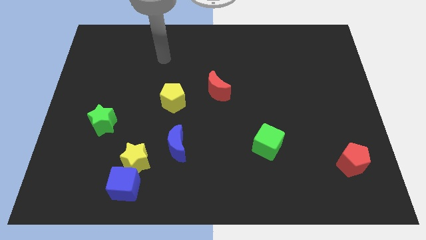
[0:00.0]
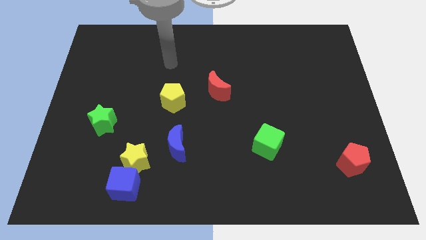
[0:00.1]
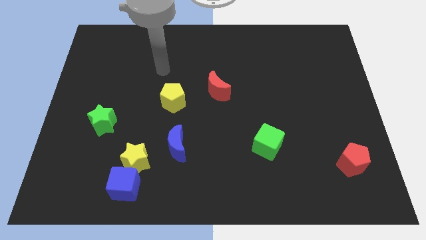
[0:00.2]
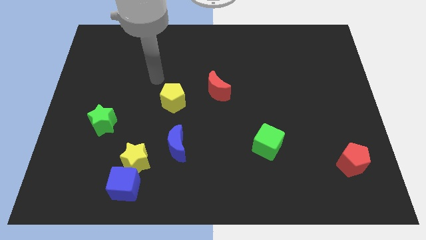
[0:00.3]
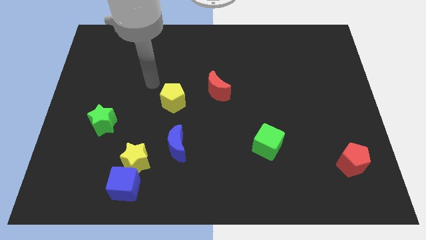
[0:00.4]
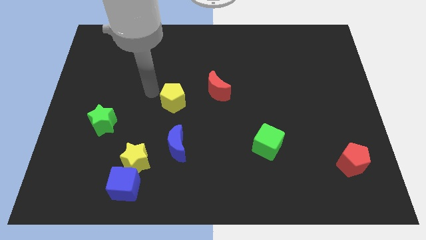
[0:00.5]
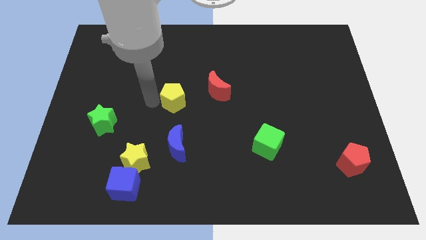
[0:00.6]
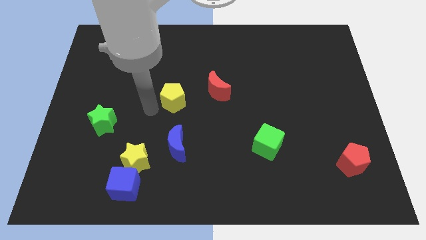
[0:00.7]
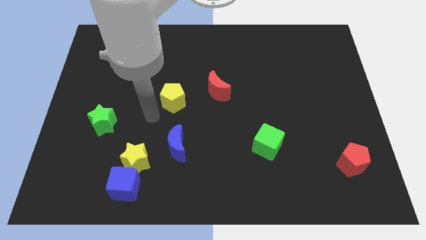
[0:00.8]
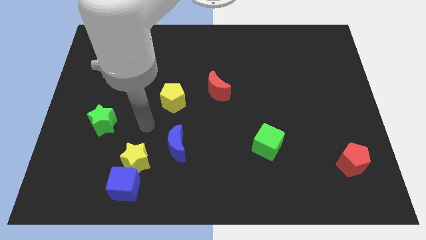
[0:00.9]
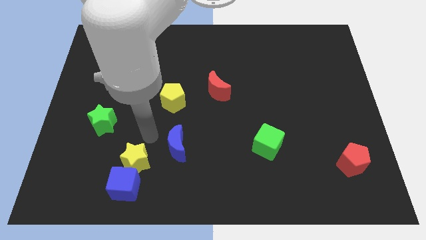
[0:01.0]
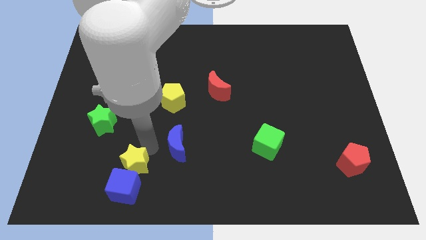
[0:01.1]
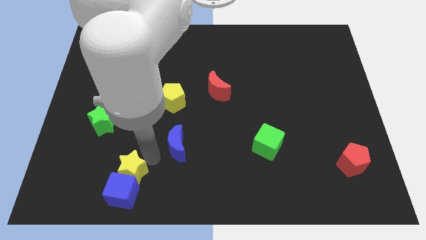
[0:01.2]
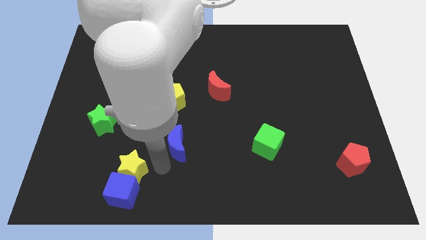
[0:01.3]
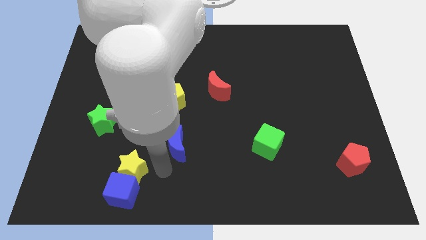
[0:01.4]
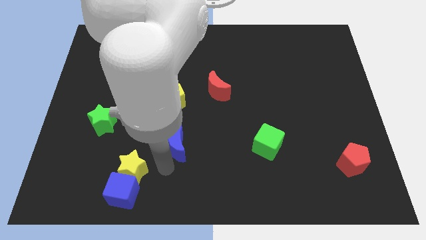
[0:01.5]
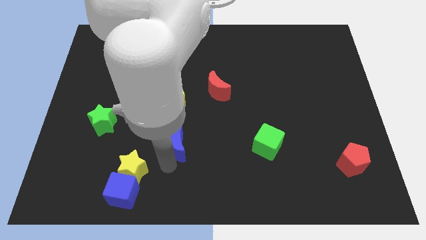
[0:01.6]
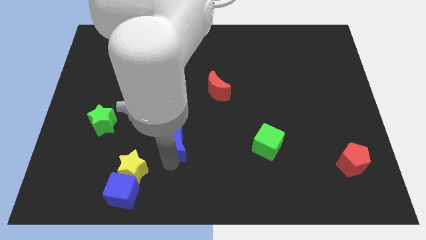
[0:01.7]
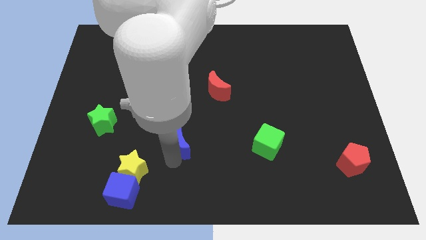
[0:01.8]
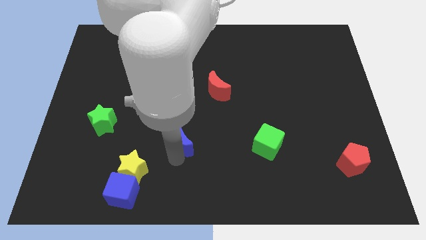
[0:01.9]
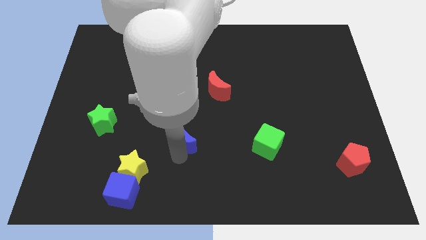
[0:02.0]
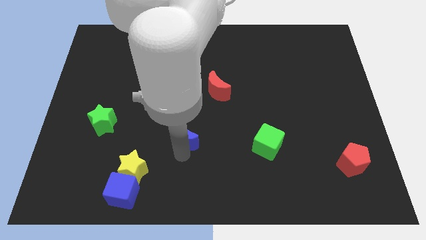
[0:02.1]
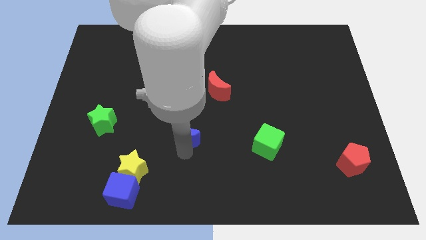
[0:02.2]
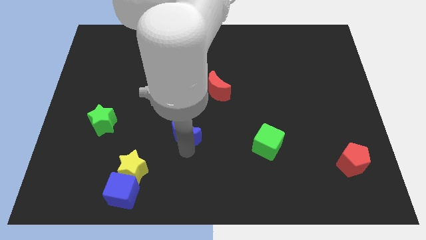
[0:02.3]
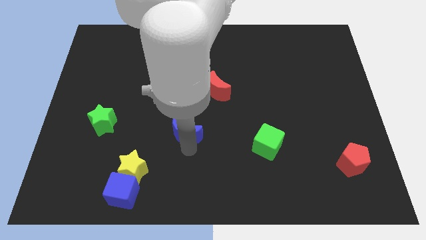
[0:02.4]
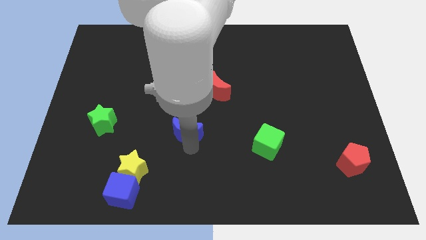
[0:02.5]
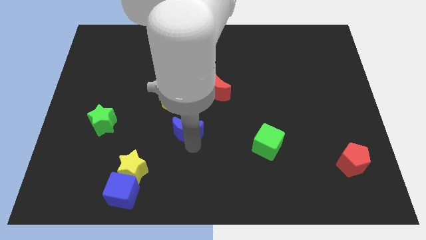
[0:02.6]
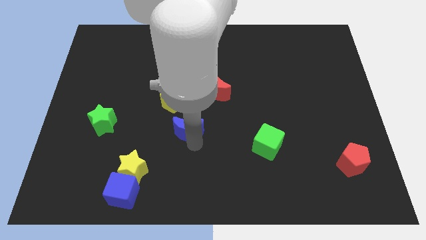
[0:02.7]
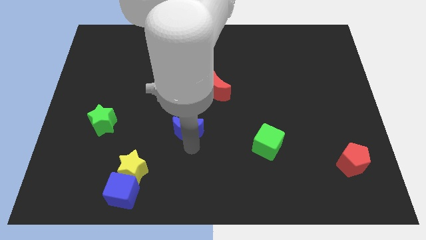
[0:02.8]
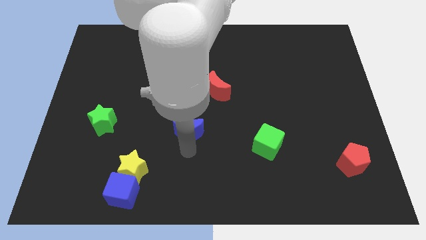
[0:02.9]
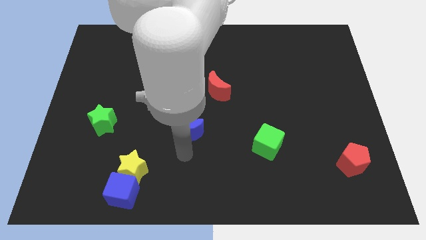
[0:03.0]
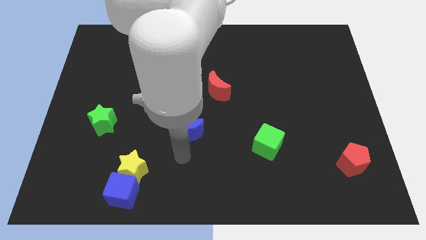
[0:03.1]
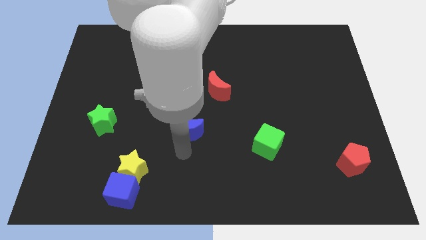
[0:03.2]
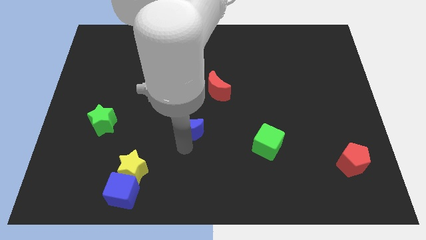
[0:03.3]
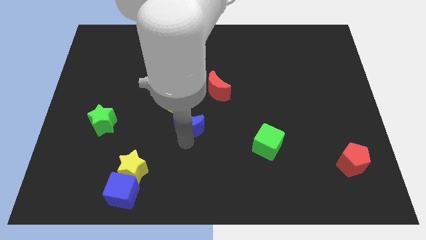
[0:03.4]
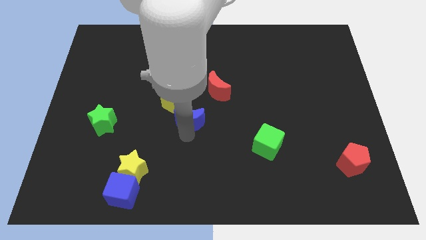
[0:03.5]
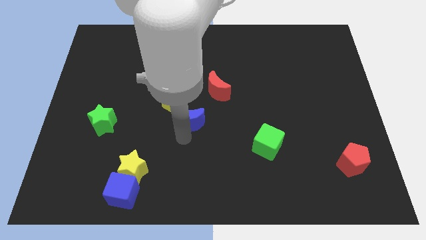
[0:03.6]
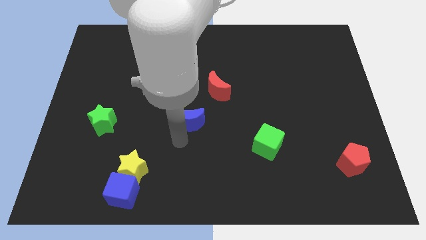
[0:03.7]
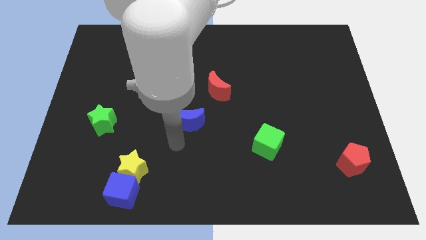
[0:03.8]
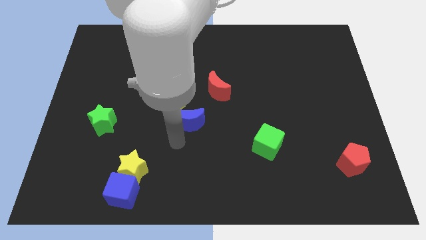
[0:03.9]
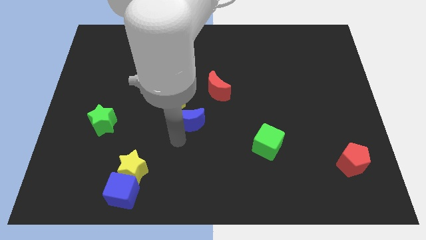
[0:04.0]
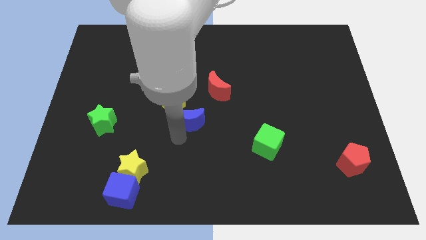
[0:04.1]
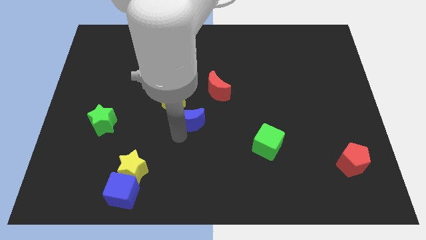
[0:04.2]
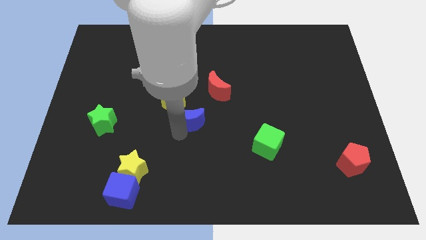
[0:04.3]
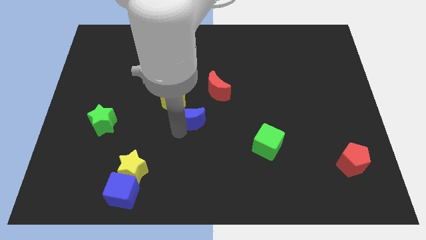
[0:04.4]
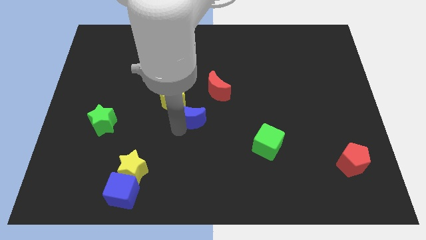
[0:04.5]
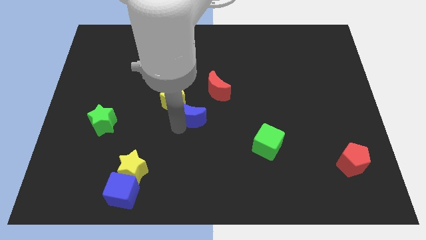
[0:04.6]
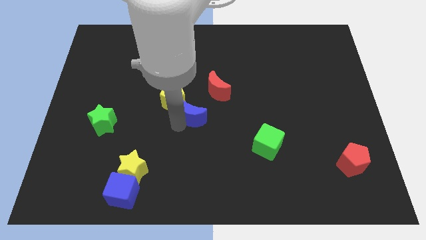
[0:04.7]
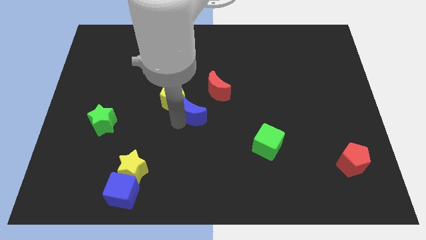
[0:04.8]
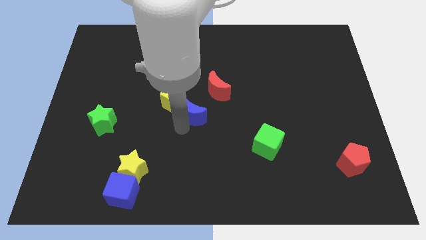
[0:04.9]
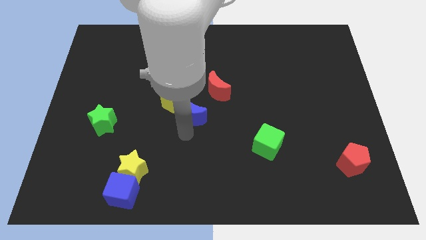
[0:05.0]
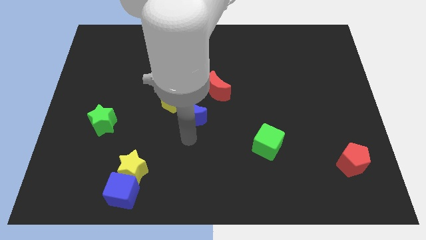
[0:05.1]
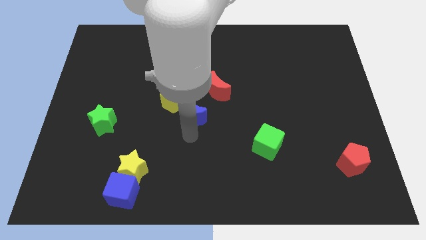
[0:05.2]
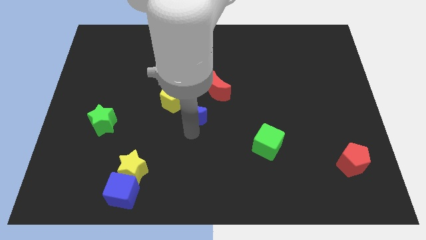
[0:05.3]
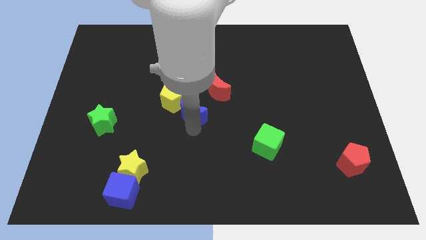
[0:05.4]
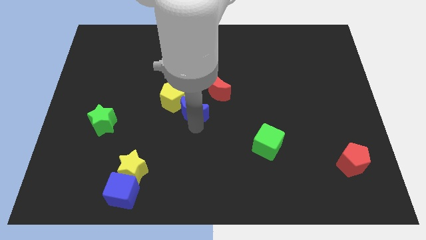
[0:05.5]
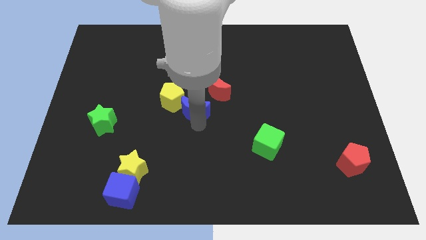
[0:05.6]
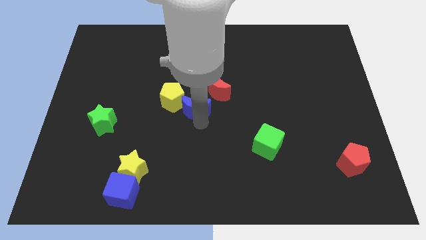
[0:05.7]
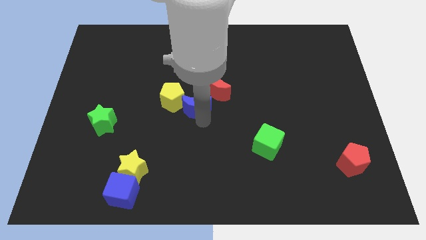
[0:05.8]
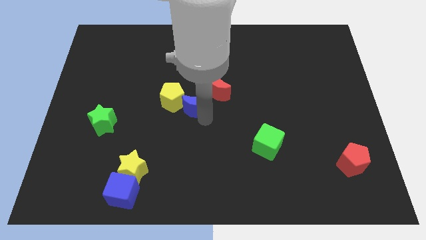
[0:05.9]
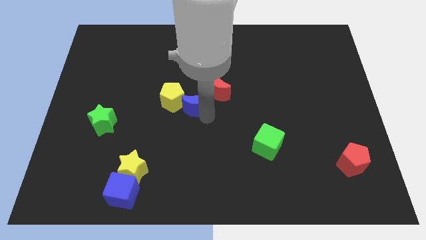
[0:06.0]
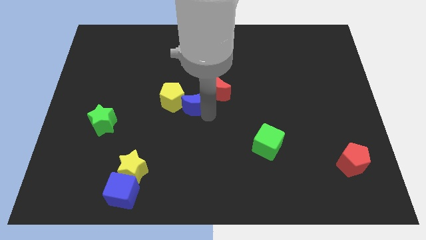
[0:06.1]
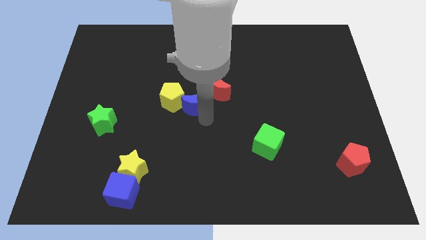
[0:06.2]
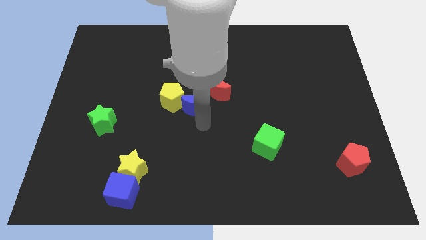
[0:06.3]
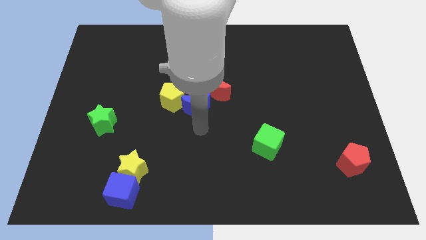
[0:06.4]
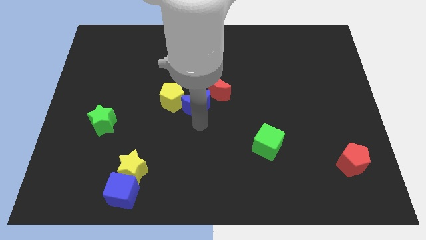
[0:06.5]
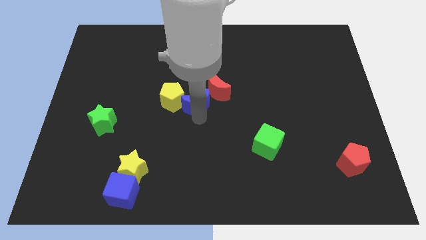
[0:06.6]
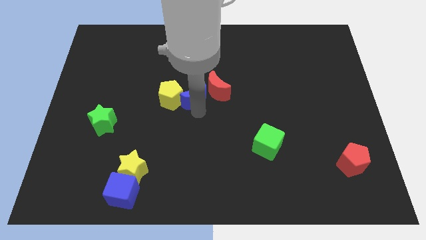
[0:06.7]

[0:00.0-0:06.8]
slide the blue moon to the top right side of the yellow pentagon
